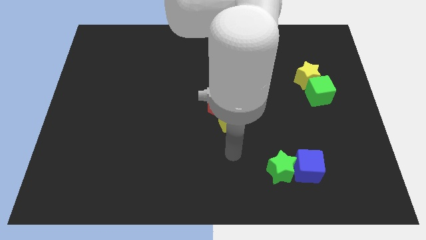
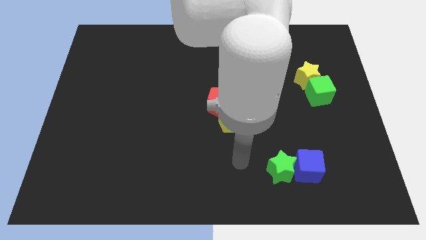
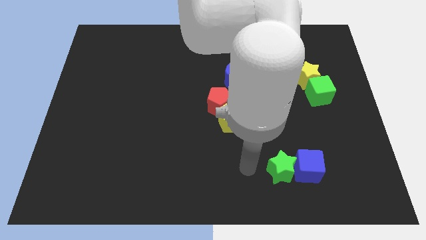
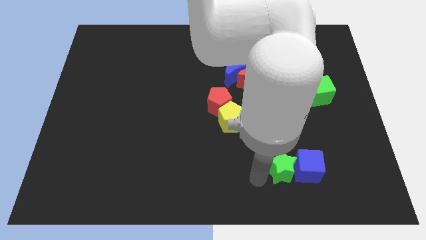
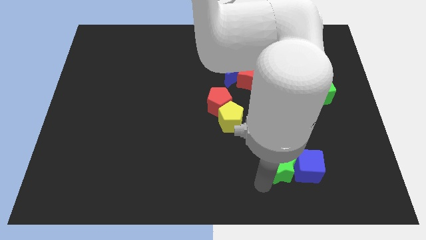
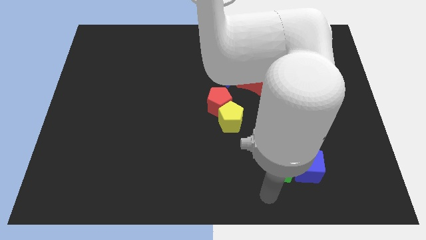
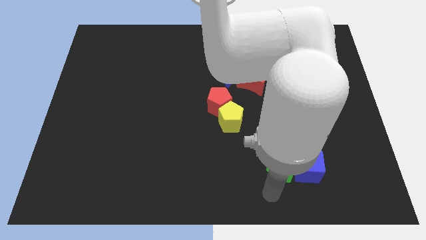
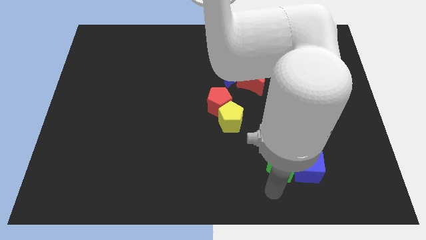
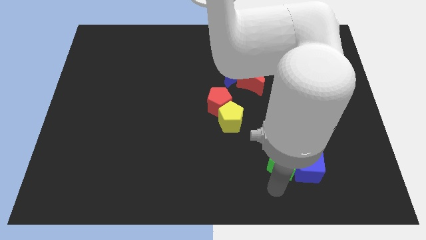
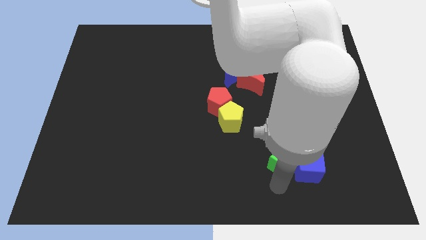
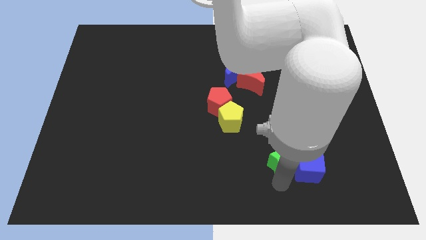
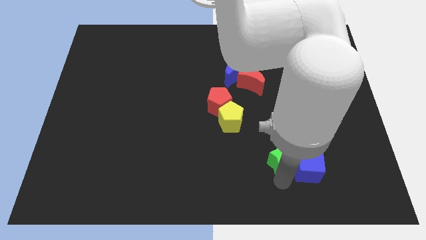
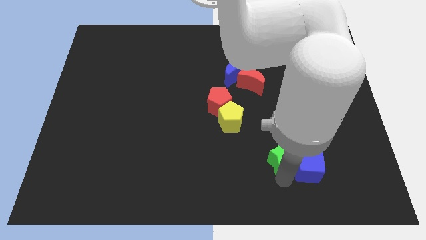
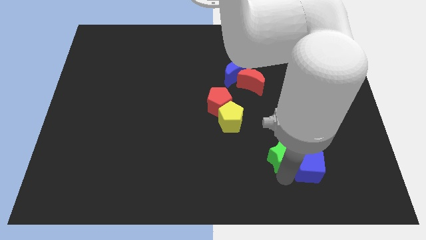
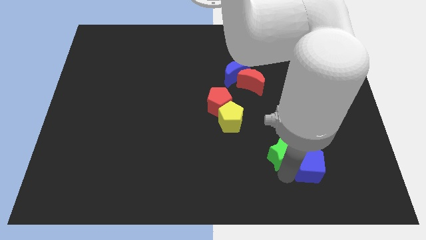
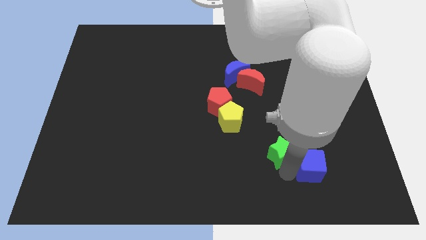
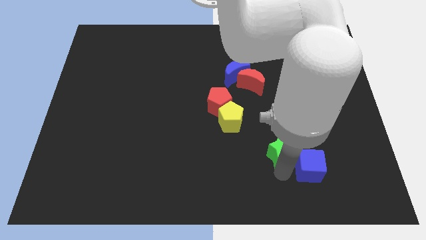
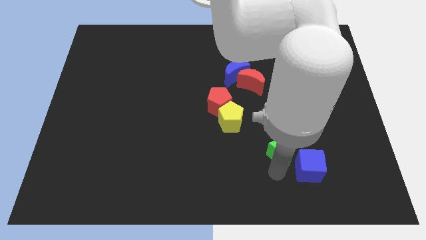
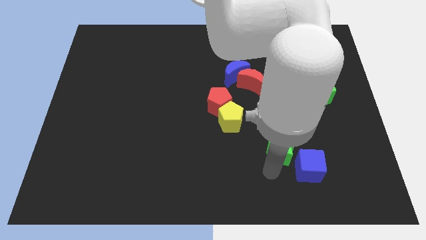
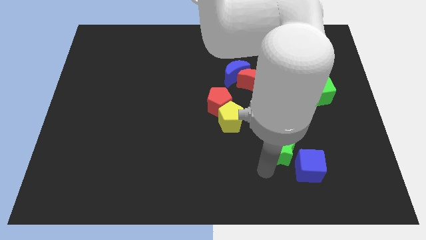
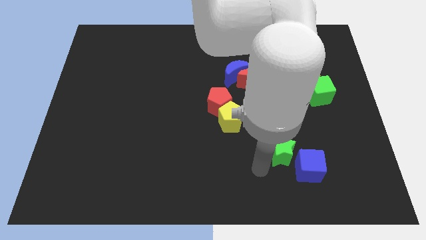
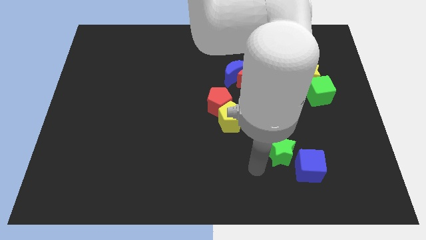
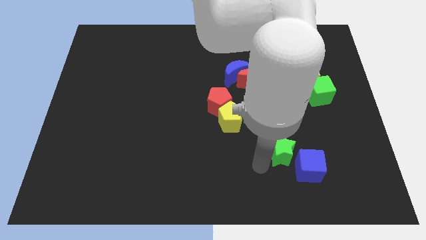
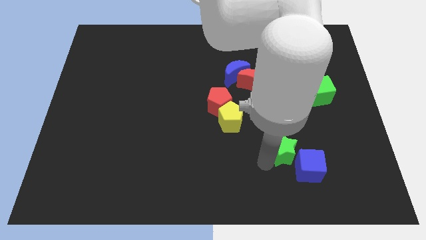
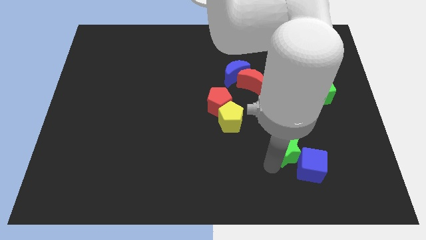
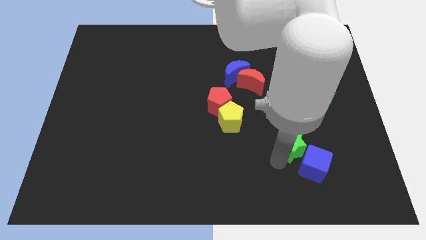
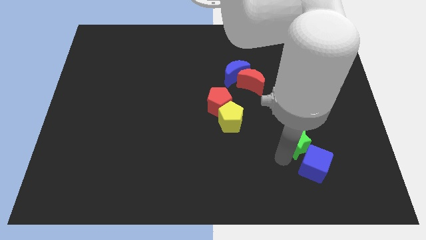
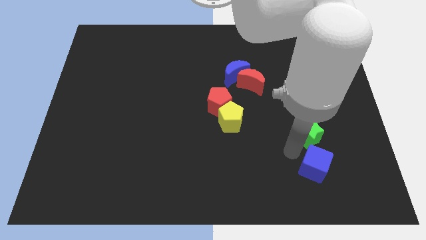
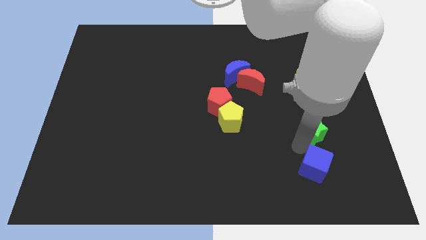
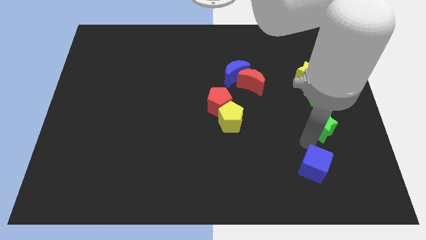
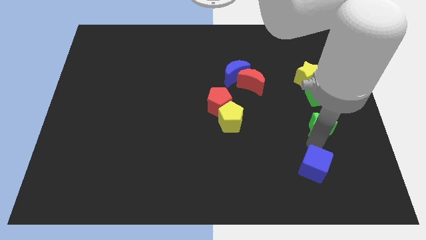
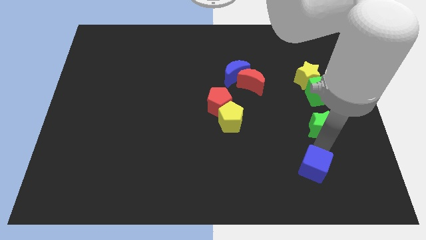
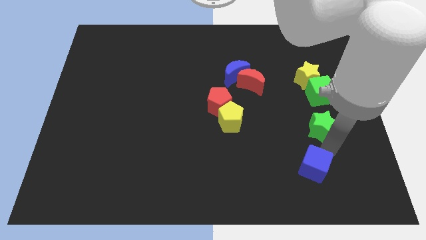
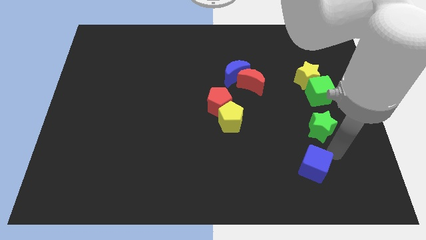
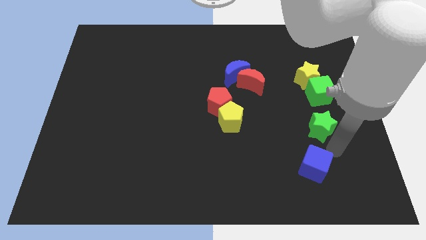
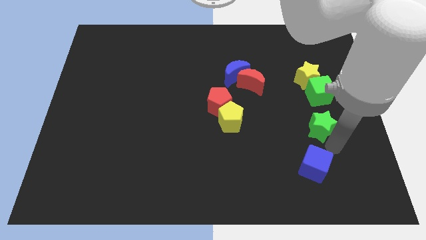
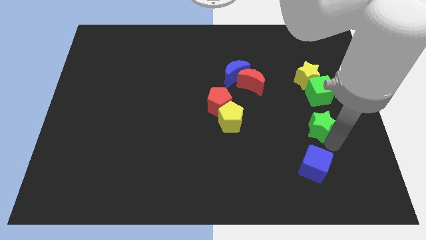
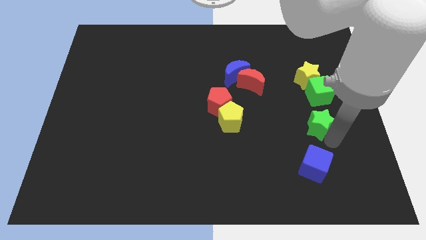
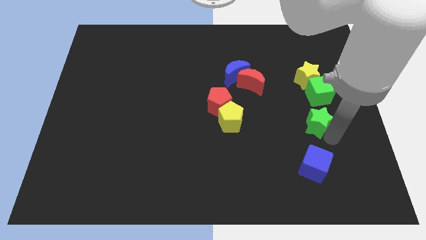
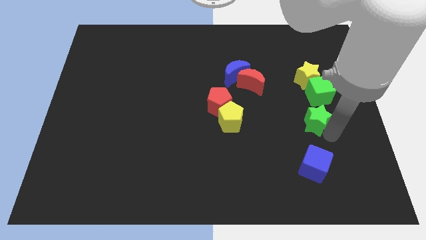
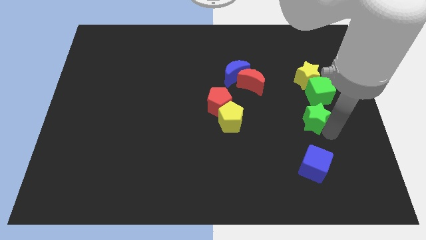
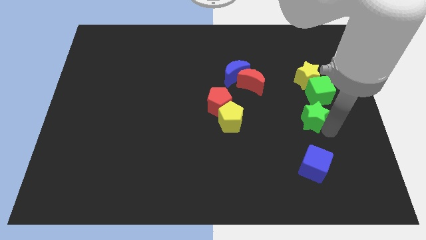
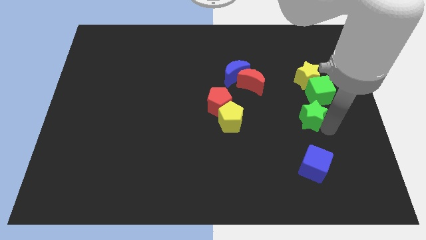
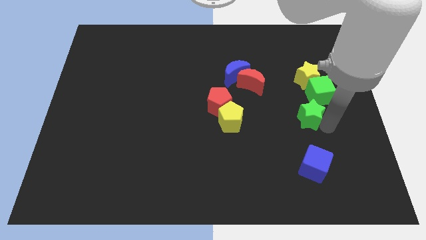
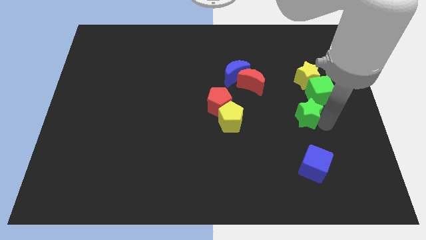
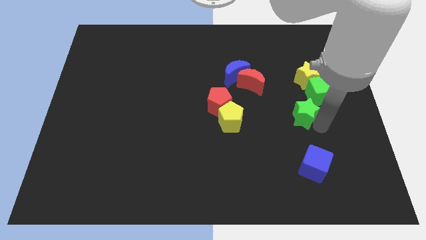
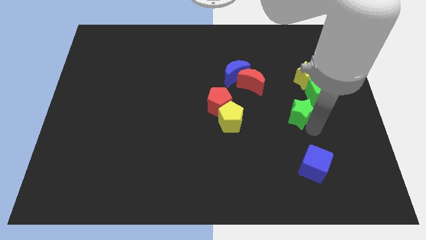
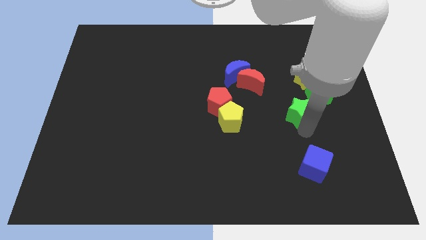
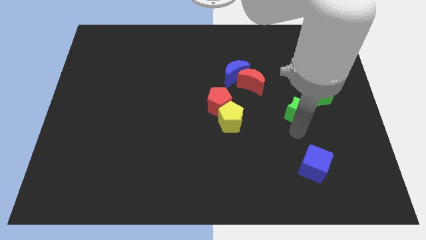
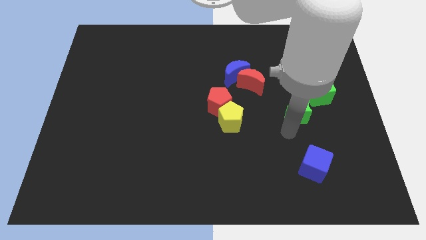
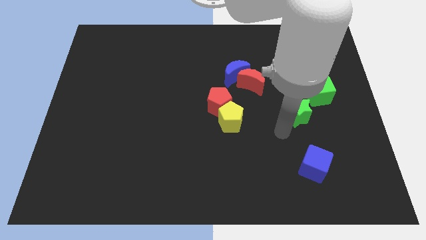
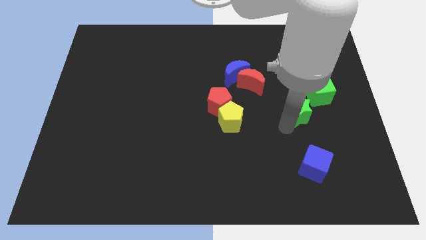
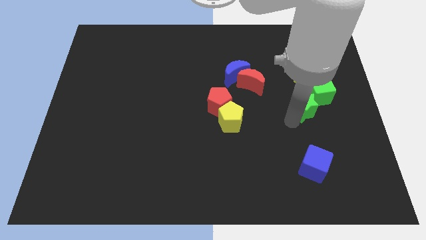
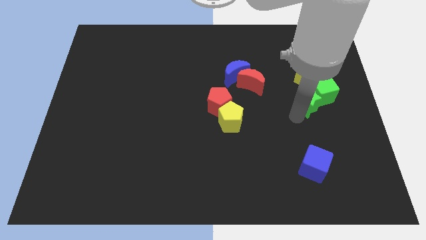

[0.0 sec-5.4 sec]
slide the green star to the green cube

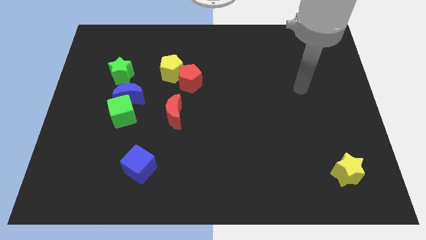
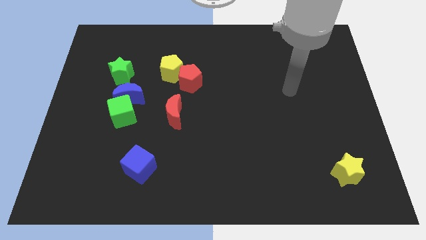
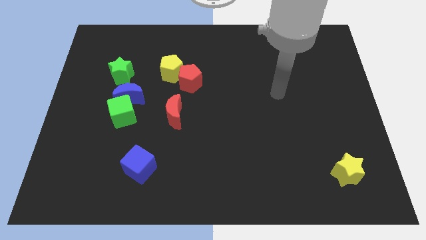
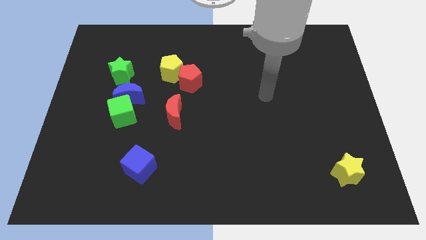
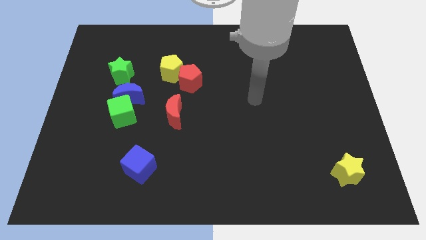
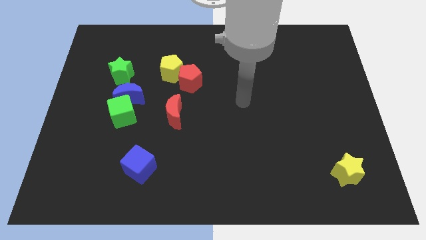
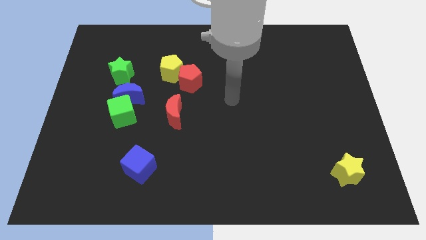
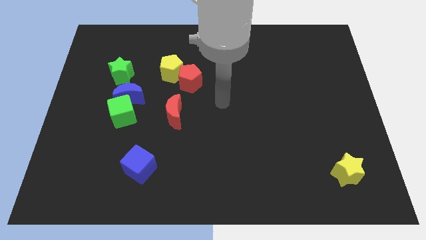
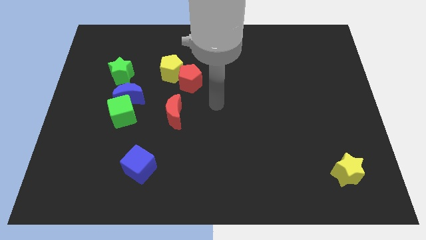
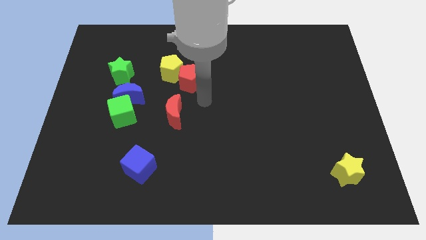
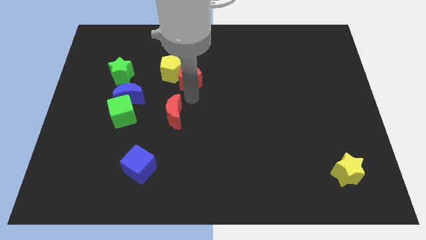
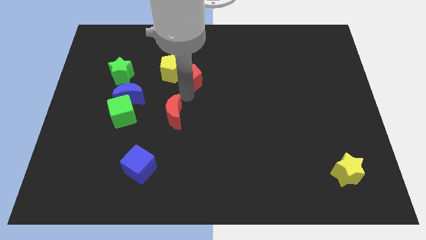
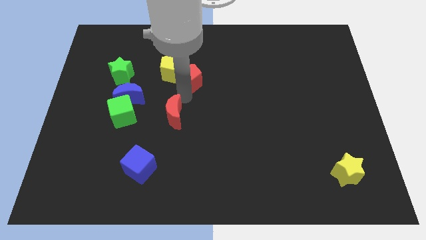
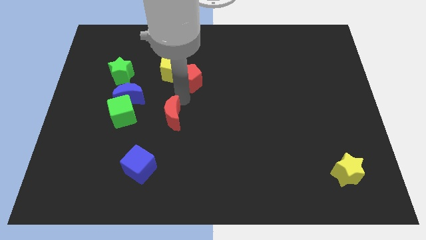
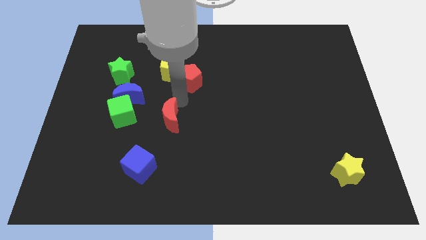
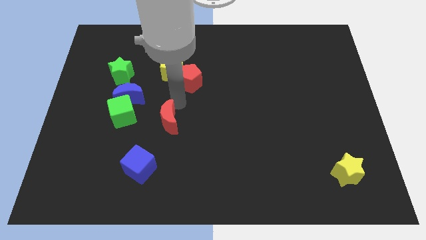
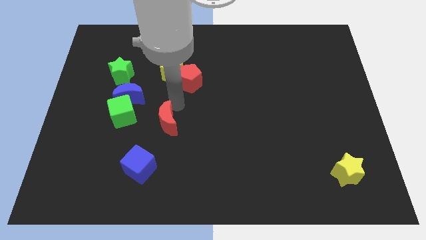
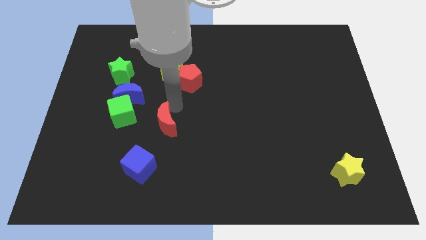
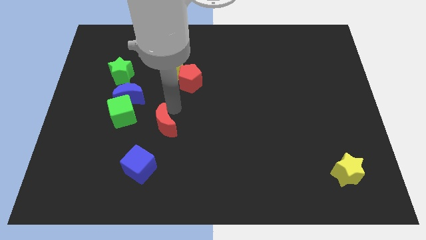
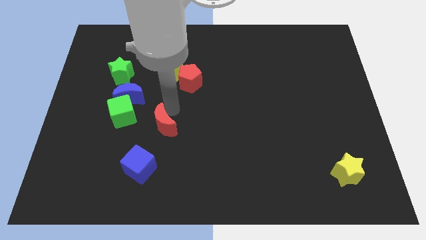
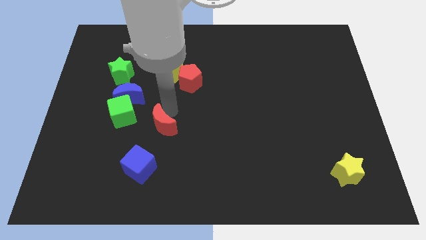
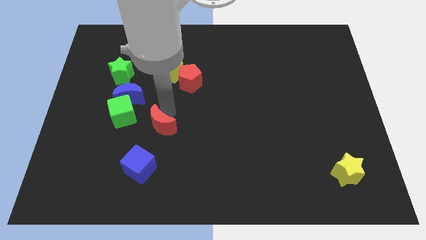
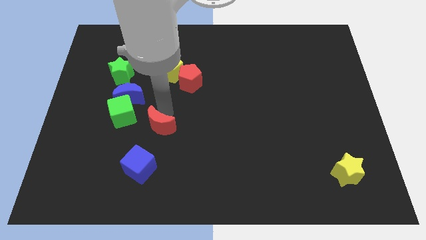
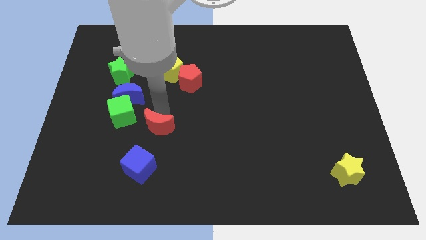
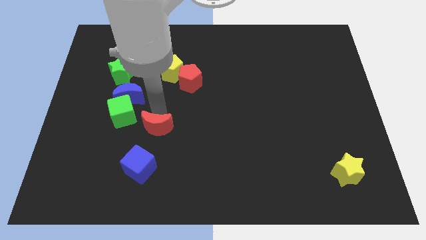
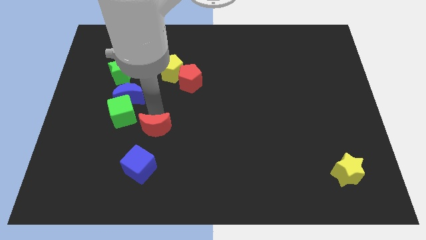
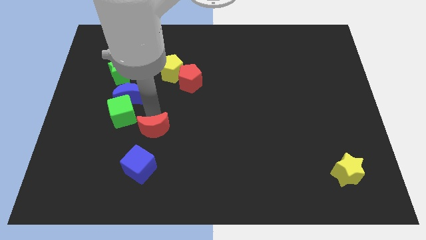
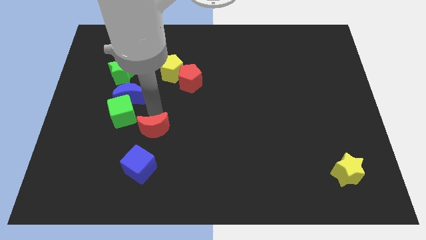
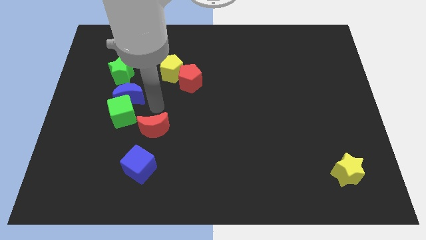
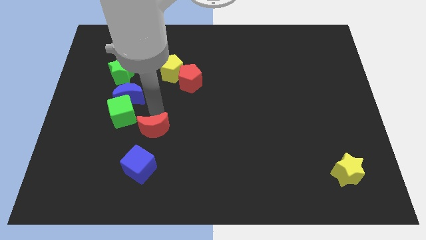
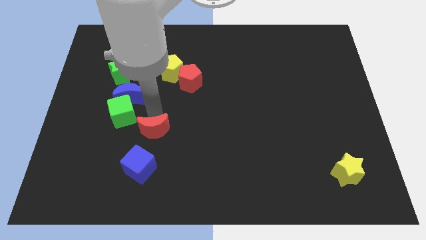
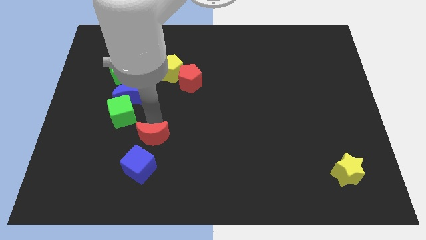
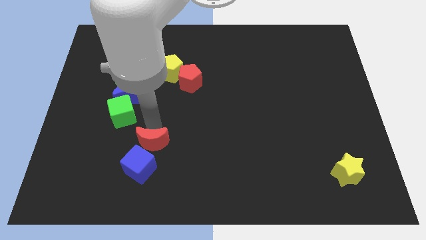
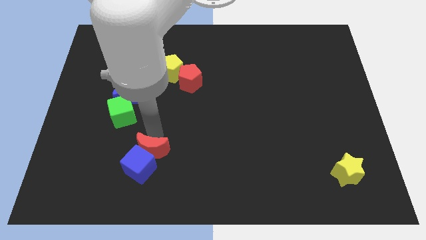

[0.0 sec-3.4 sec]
slide the red moon to the blue cube
